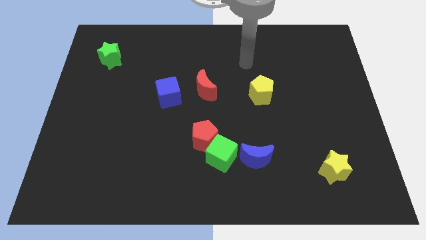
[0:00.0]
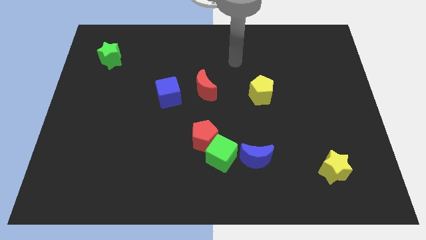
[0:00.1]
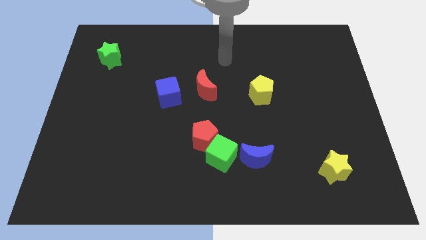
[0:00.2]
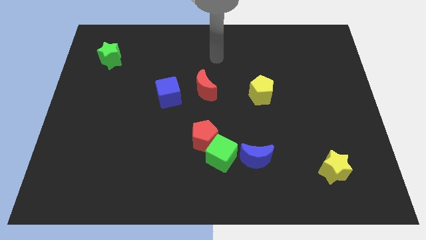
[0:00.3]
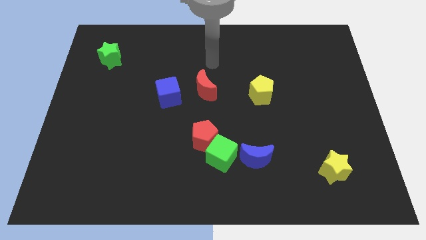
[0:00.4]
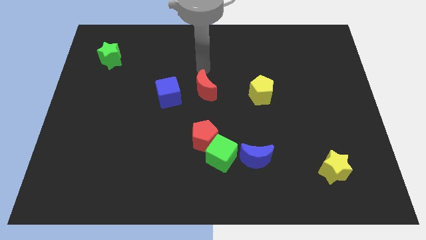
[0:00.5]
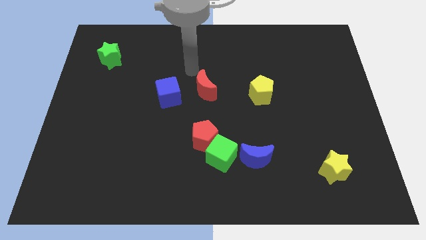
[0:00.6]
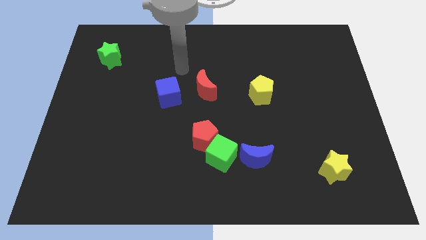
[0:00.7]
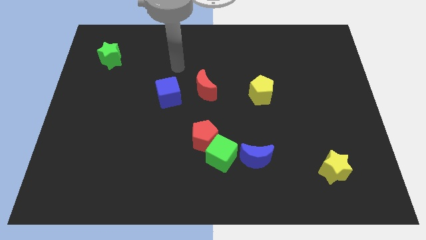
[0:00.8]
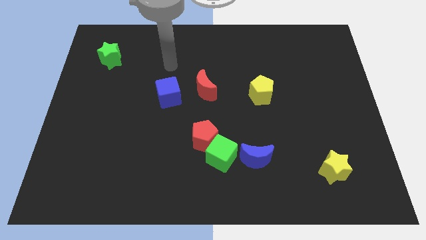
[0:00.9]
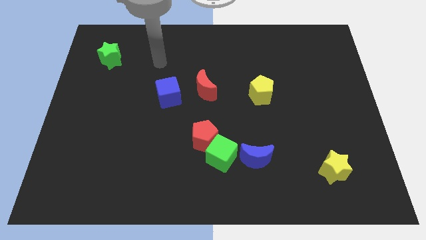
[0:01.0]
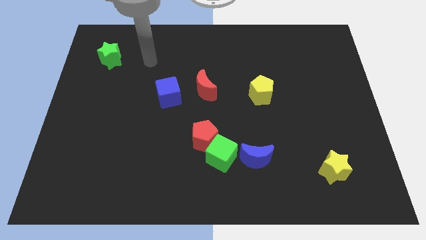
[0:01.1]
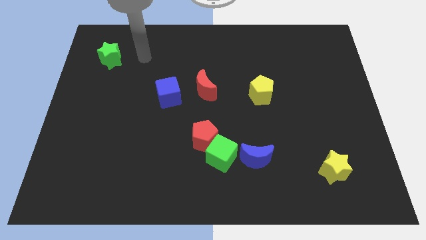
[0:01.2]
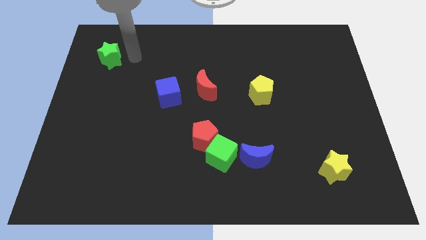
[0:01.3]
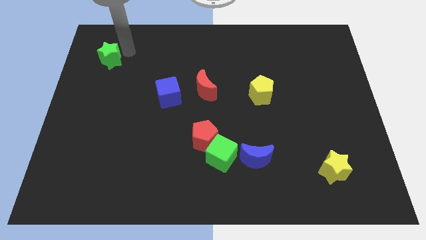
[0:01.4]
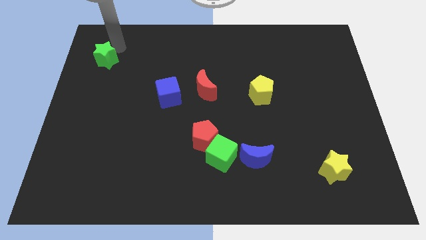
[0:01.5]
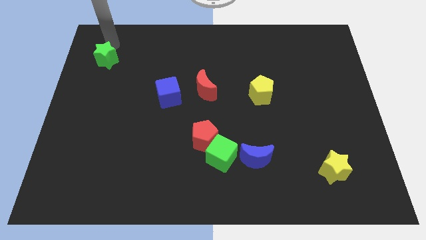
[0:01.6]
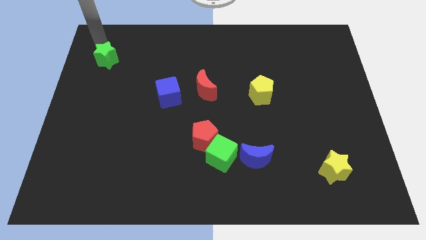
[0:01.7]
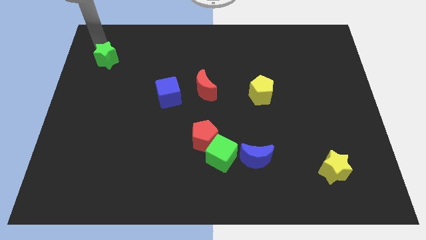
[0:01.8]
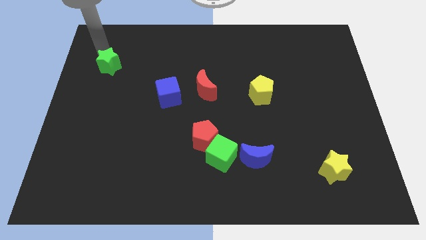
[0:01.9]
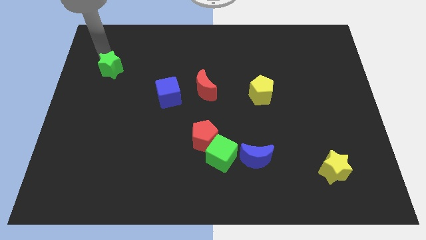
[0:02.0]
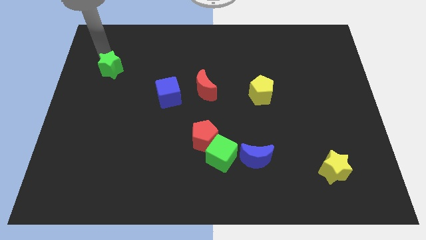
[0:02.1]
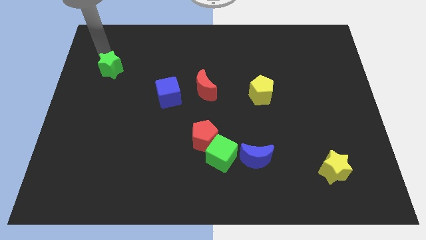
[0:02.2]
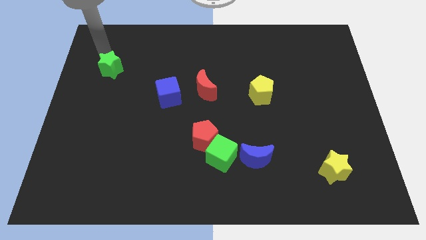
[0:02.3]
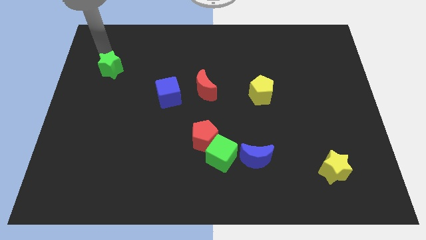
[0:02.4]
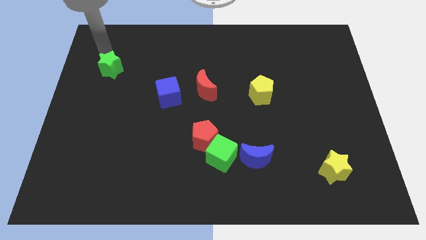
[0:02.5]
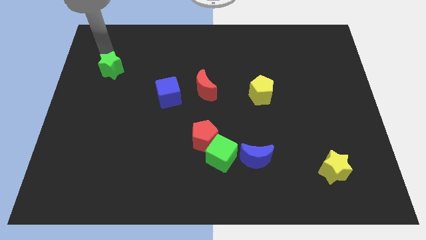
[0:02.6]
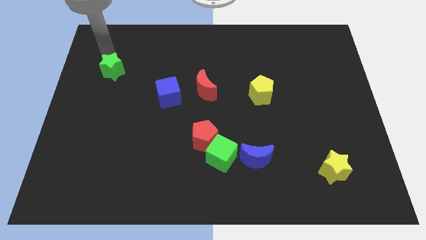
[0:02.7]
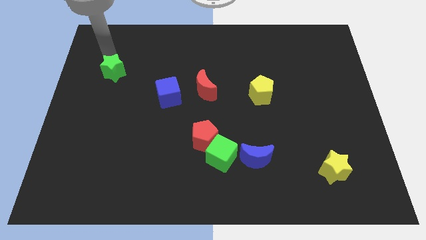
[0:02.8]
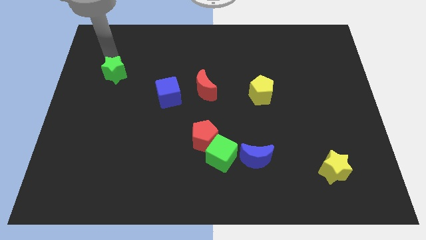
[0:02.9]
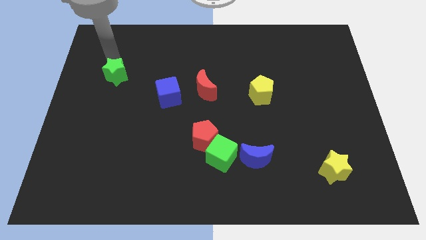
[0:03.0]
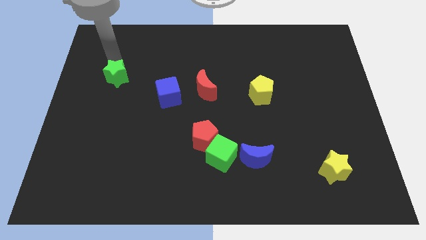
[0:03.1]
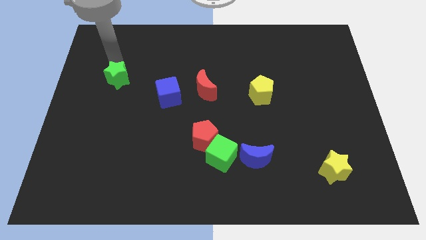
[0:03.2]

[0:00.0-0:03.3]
slide the green star a little downwards

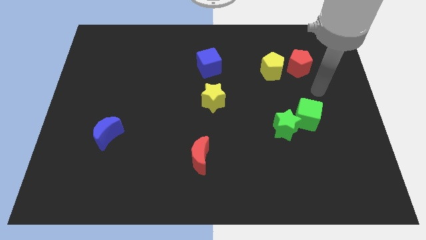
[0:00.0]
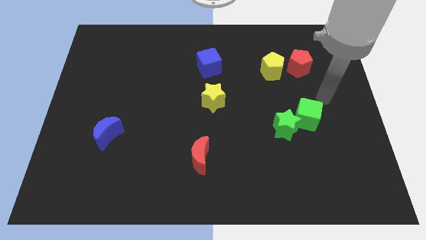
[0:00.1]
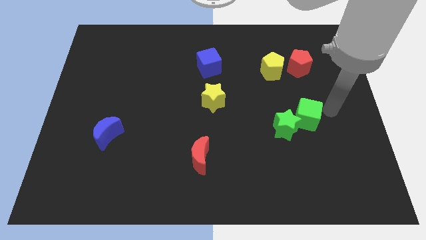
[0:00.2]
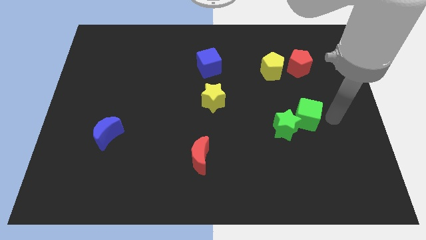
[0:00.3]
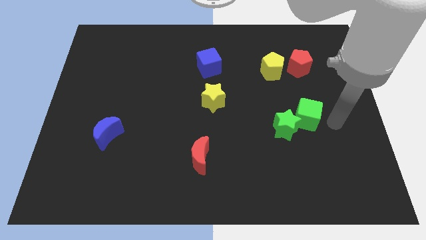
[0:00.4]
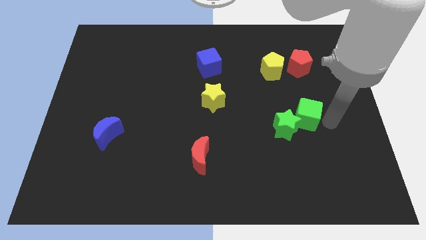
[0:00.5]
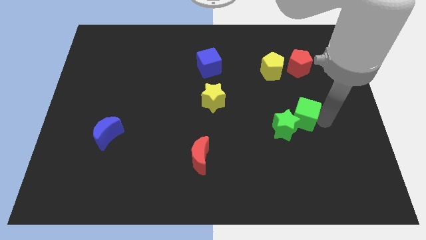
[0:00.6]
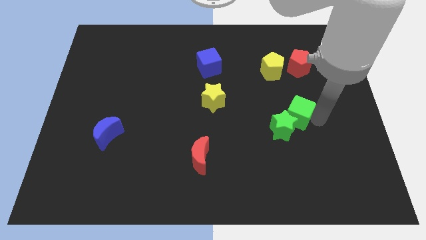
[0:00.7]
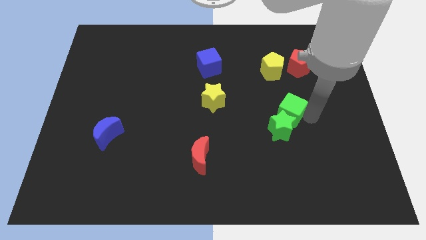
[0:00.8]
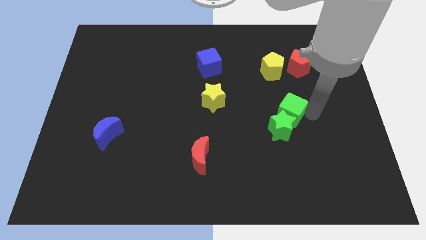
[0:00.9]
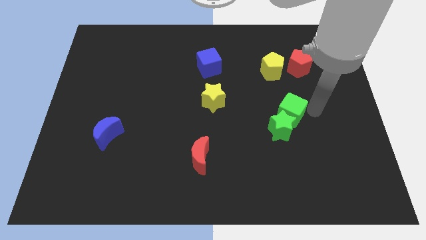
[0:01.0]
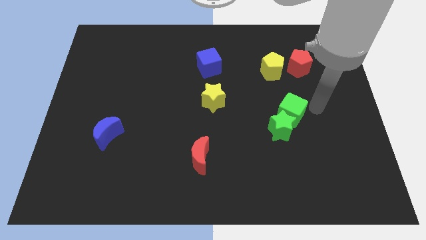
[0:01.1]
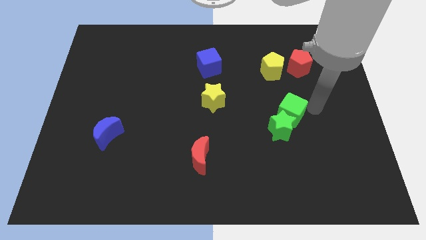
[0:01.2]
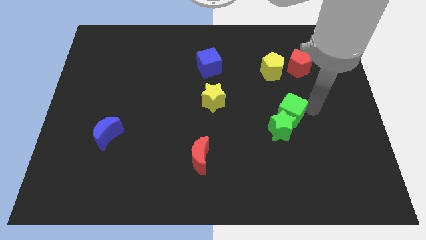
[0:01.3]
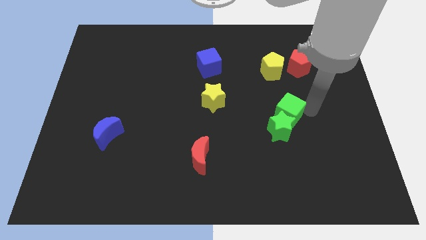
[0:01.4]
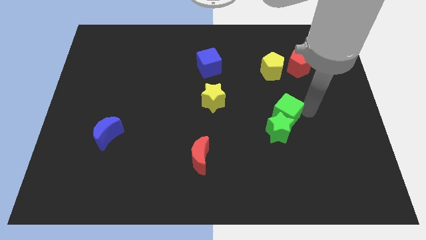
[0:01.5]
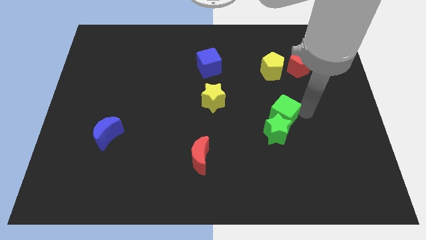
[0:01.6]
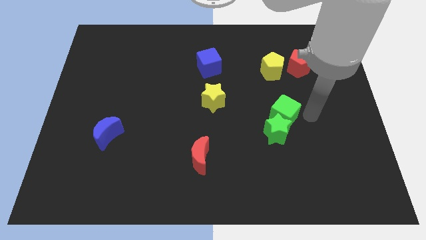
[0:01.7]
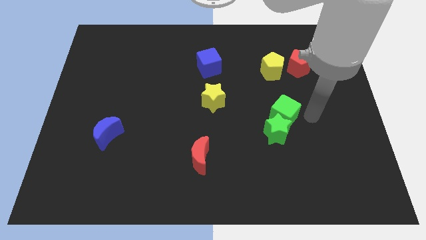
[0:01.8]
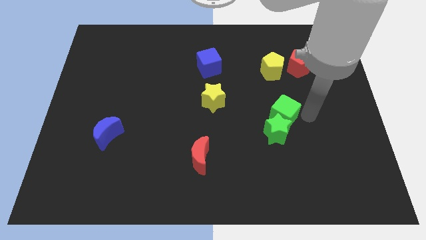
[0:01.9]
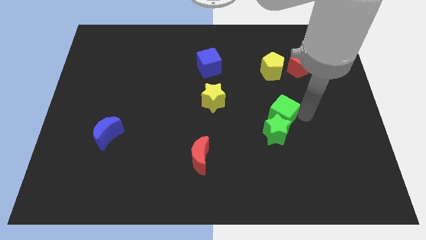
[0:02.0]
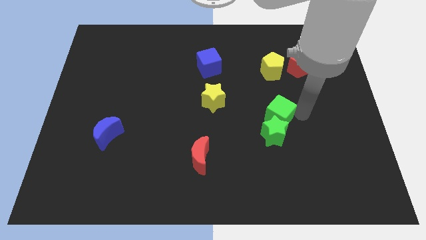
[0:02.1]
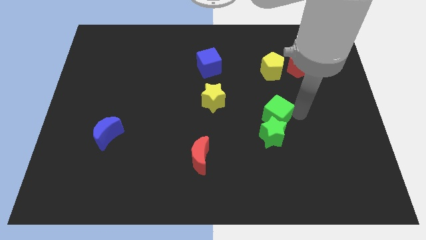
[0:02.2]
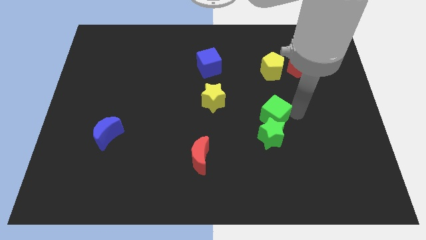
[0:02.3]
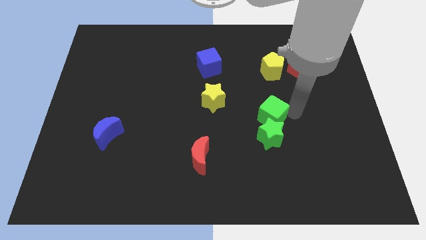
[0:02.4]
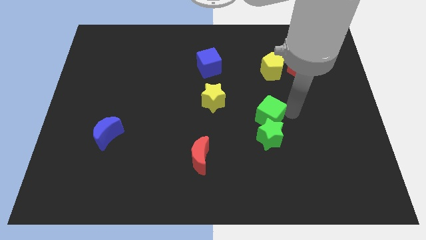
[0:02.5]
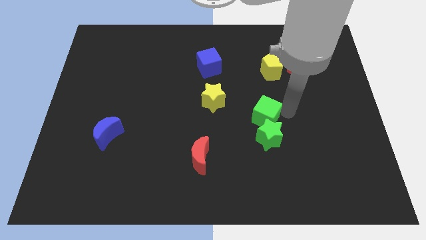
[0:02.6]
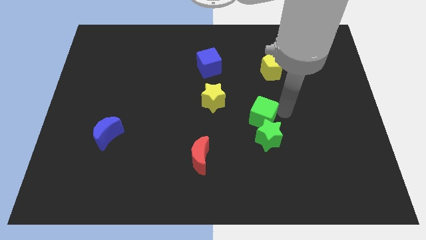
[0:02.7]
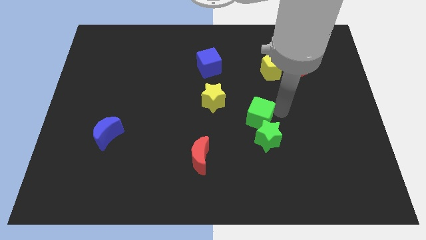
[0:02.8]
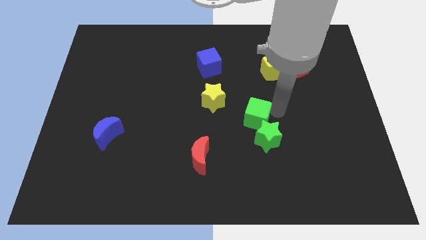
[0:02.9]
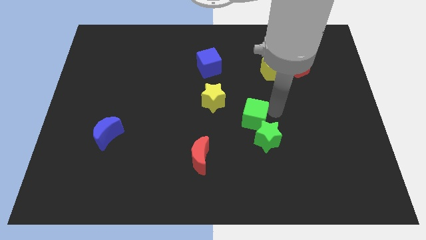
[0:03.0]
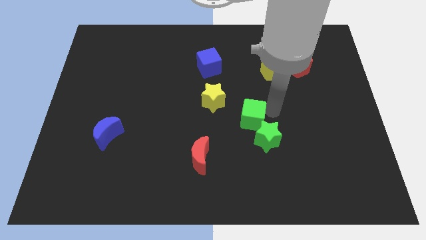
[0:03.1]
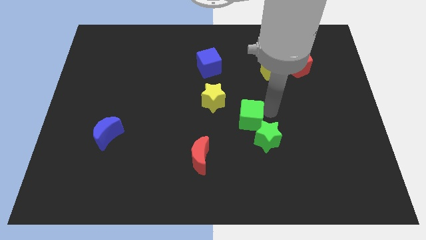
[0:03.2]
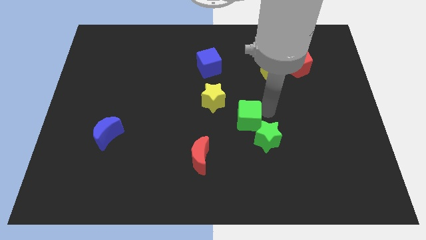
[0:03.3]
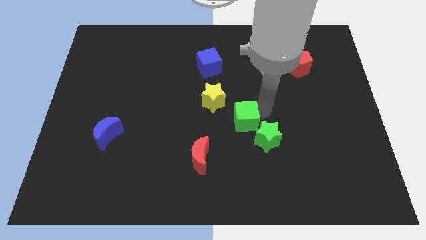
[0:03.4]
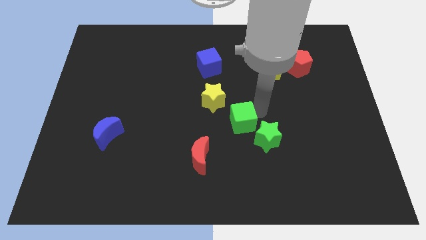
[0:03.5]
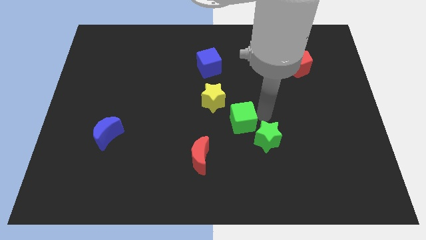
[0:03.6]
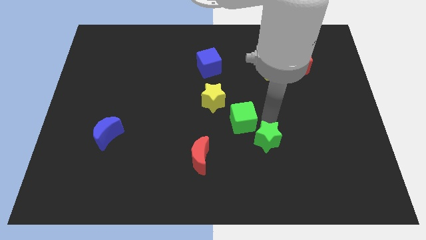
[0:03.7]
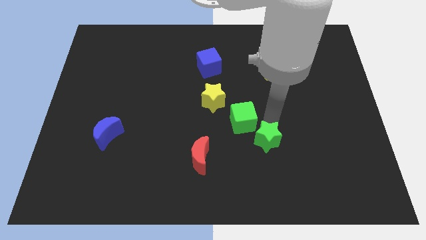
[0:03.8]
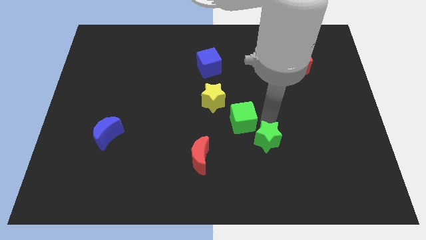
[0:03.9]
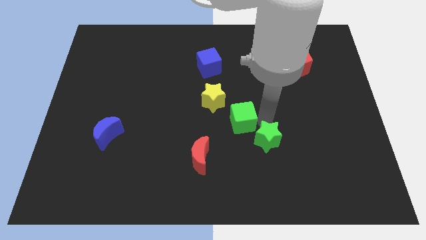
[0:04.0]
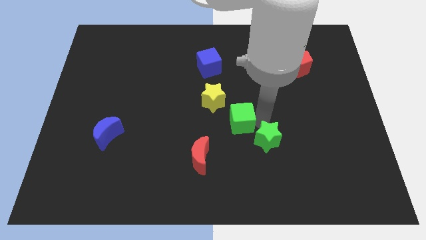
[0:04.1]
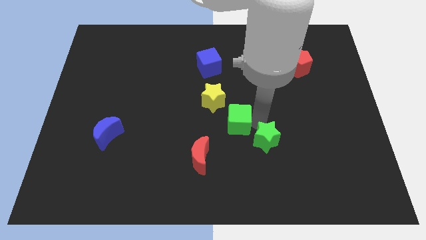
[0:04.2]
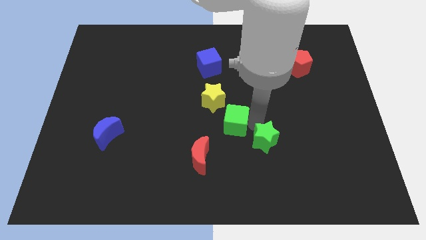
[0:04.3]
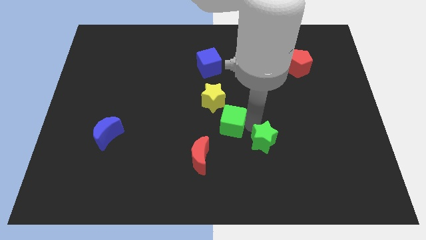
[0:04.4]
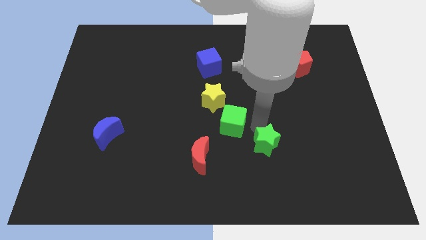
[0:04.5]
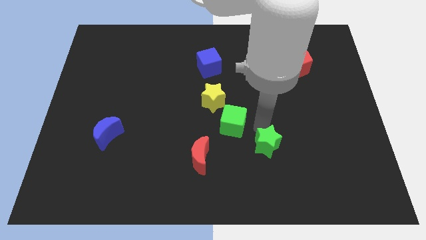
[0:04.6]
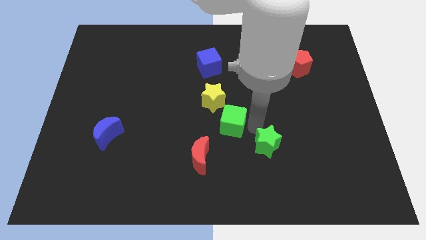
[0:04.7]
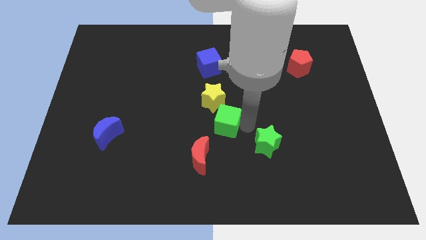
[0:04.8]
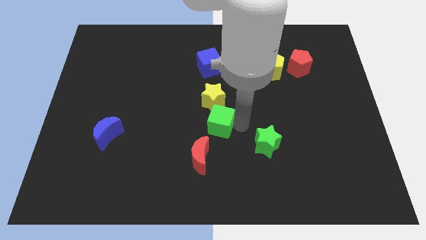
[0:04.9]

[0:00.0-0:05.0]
move the green cube left
